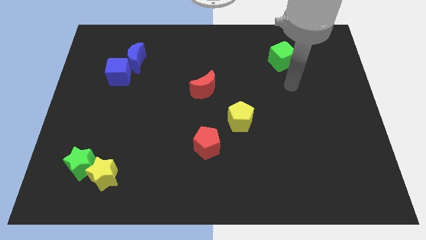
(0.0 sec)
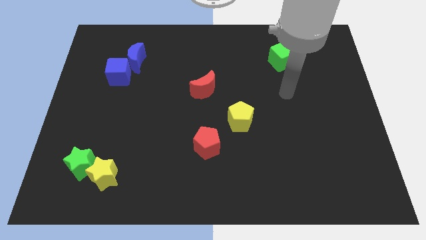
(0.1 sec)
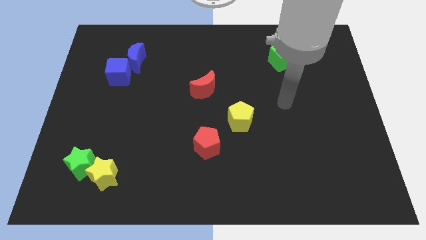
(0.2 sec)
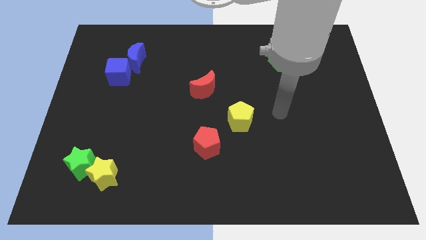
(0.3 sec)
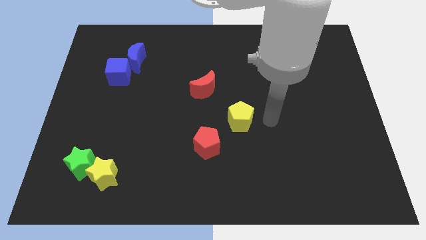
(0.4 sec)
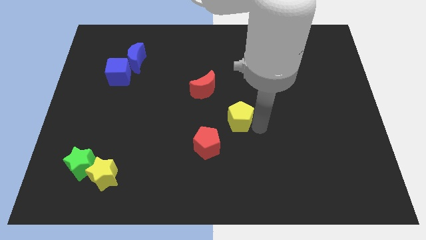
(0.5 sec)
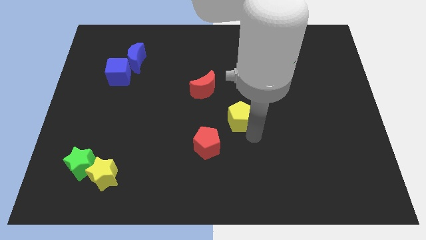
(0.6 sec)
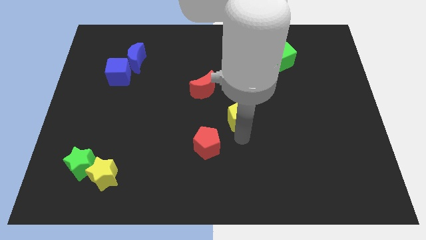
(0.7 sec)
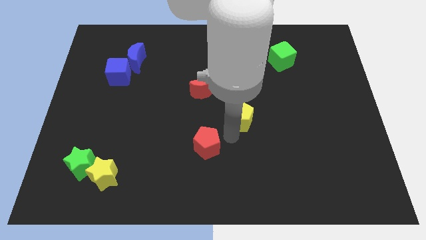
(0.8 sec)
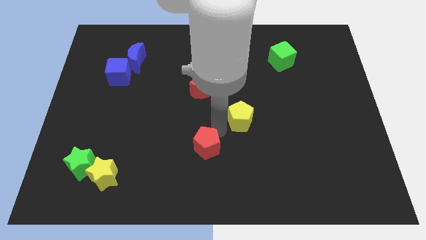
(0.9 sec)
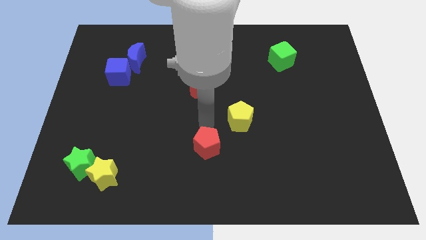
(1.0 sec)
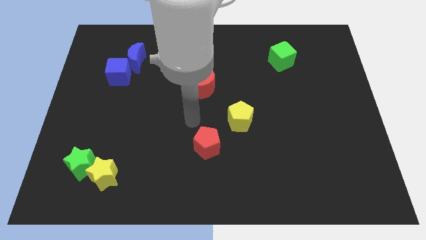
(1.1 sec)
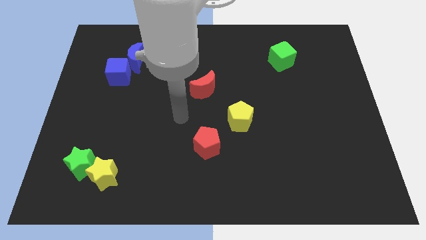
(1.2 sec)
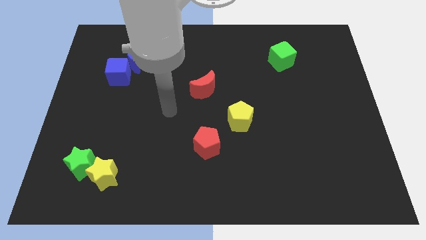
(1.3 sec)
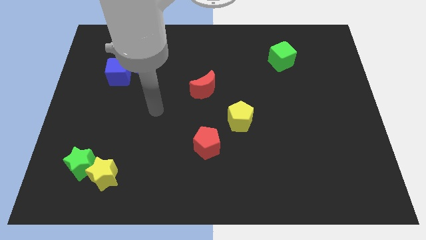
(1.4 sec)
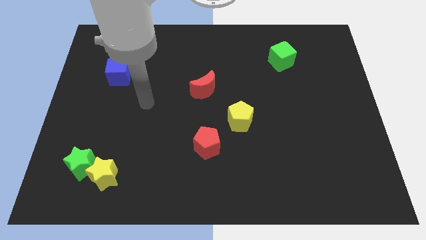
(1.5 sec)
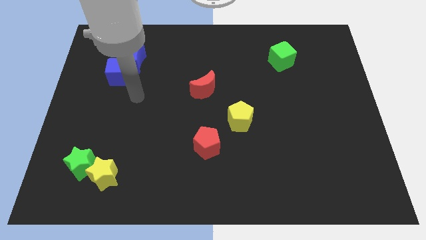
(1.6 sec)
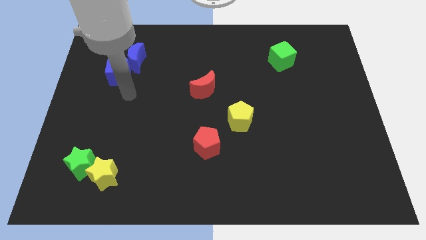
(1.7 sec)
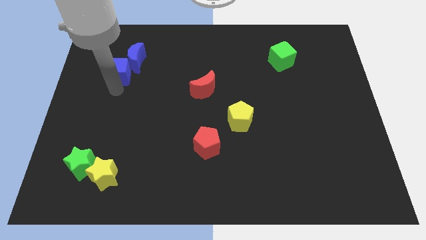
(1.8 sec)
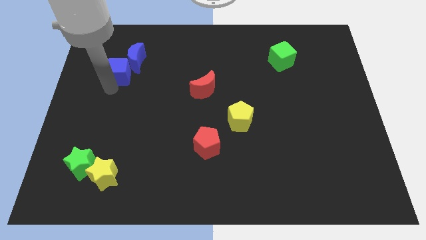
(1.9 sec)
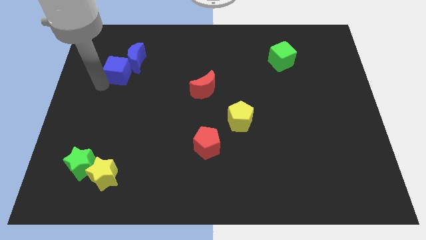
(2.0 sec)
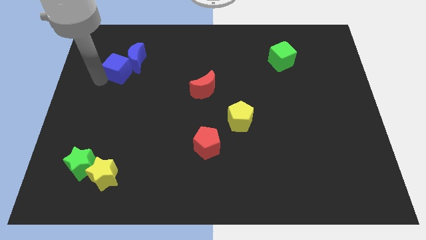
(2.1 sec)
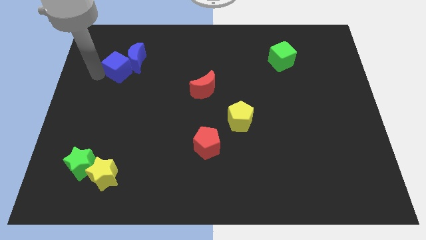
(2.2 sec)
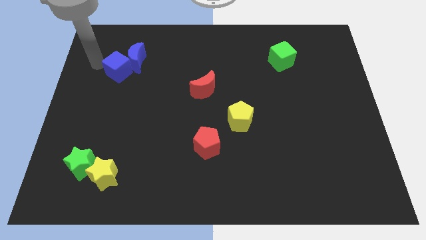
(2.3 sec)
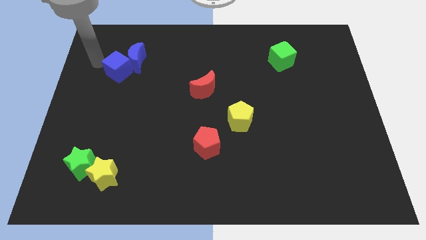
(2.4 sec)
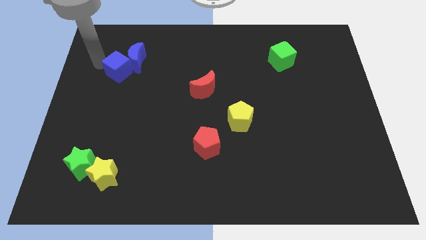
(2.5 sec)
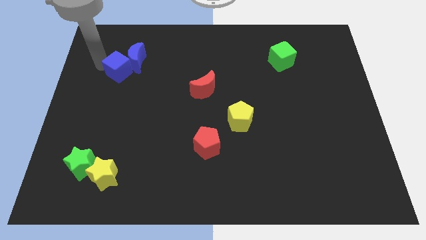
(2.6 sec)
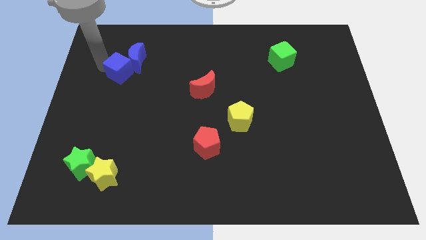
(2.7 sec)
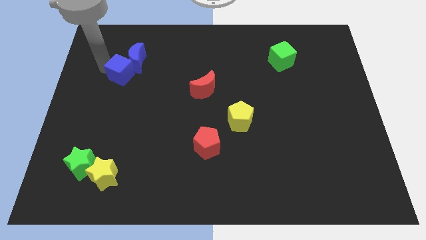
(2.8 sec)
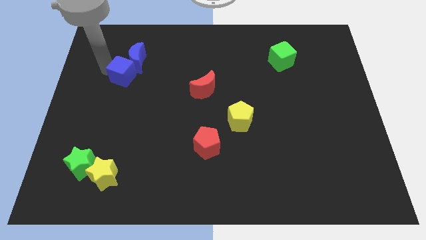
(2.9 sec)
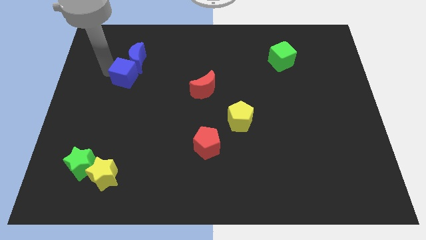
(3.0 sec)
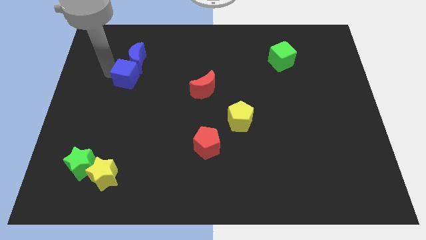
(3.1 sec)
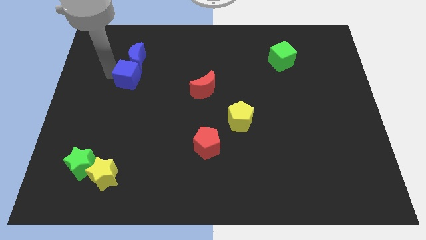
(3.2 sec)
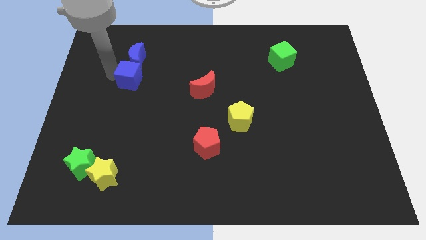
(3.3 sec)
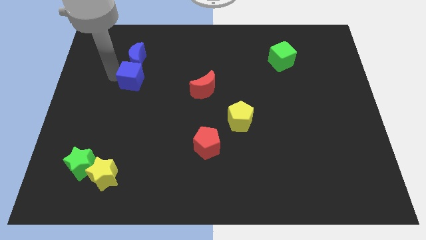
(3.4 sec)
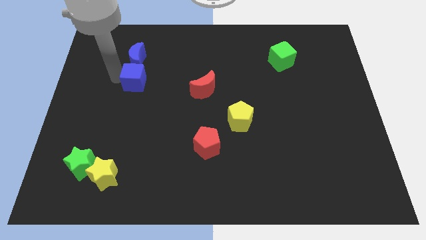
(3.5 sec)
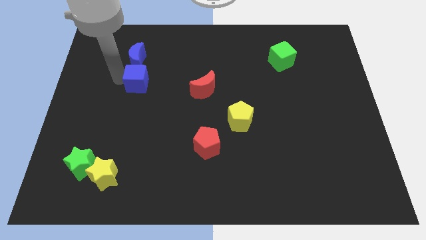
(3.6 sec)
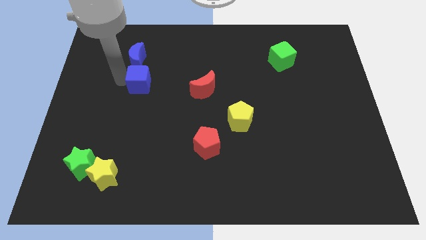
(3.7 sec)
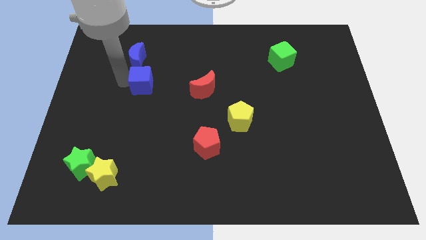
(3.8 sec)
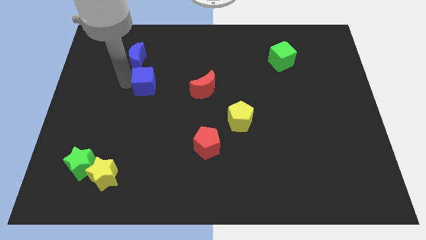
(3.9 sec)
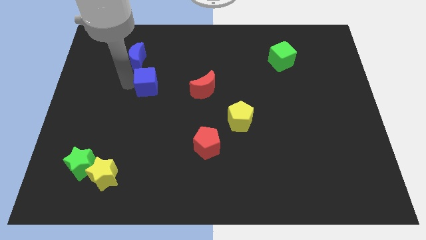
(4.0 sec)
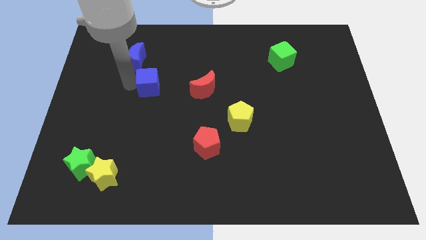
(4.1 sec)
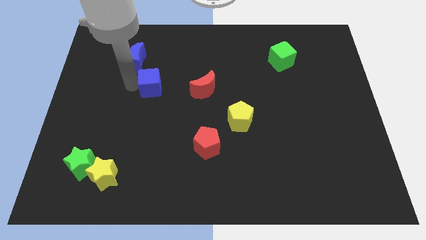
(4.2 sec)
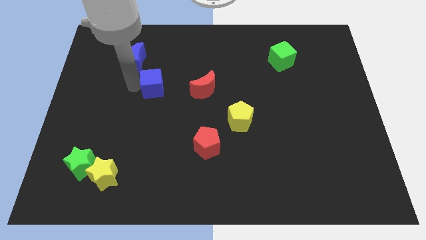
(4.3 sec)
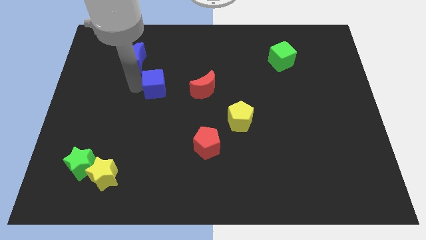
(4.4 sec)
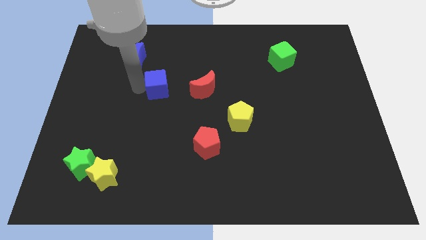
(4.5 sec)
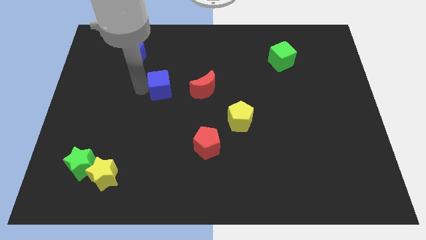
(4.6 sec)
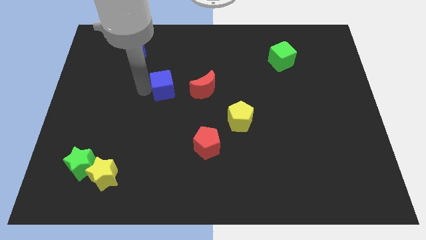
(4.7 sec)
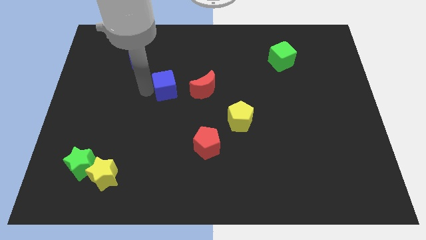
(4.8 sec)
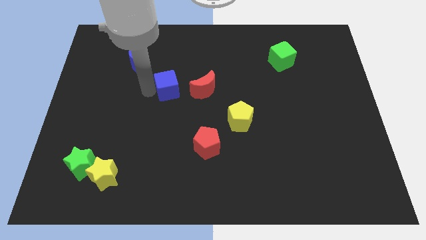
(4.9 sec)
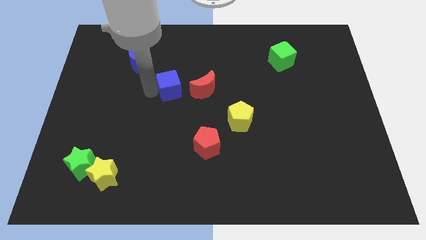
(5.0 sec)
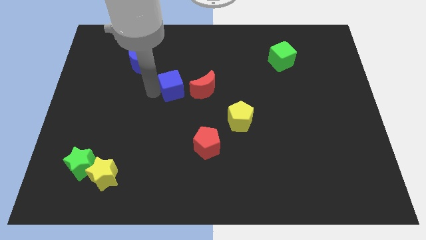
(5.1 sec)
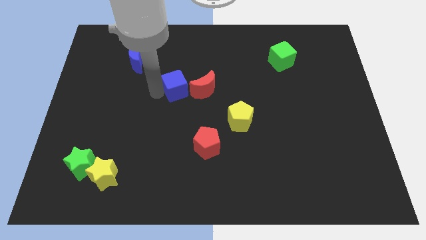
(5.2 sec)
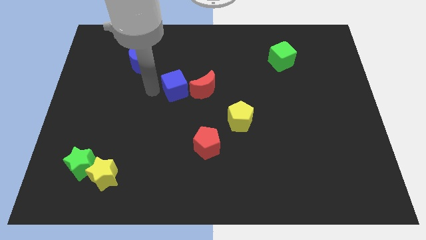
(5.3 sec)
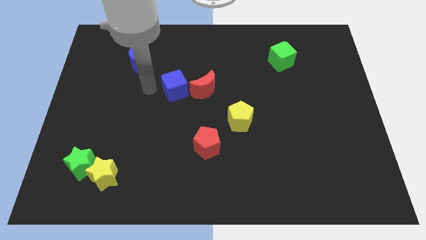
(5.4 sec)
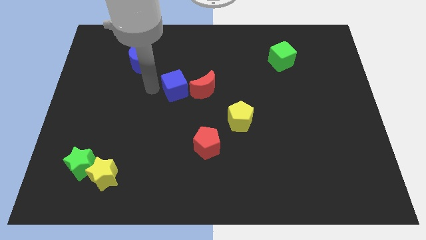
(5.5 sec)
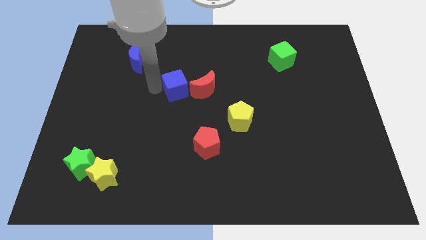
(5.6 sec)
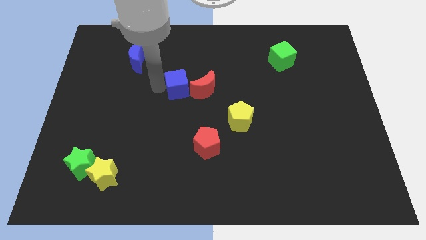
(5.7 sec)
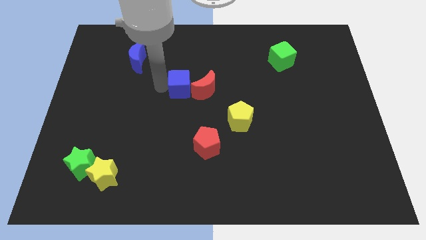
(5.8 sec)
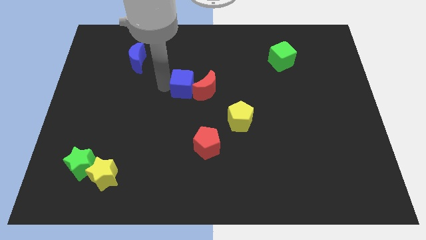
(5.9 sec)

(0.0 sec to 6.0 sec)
push the blue cube towards the red moon

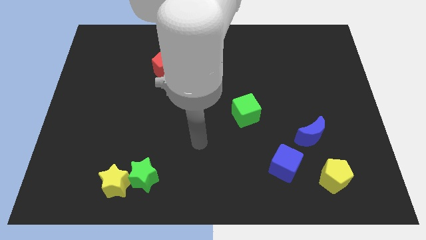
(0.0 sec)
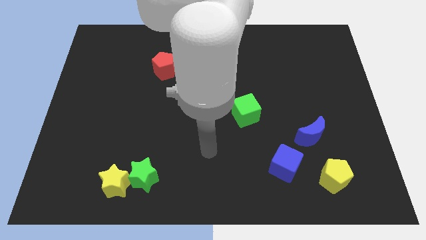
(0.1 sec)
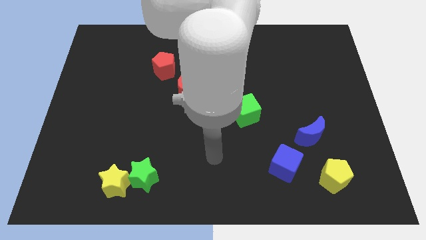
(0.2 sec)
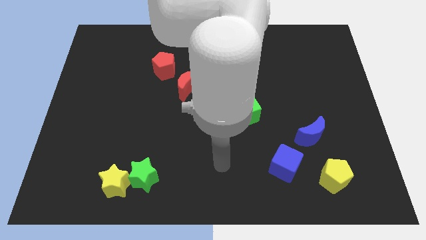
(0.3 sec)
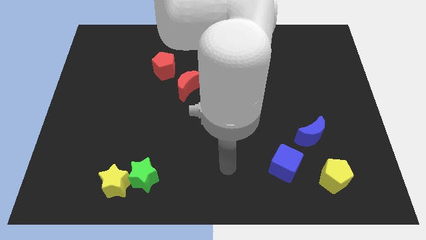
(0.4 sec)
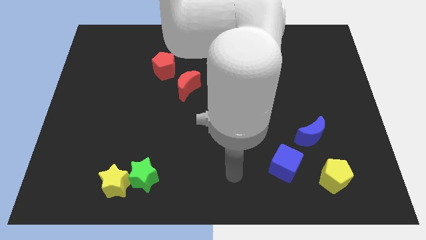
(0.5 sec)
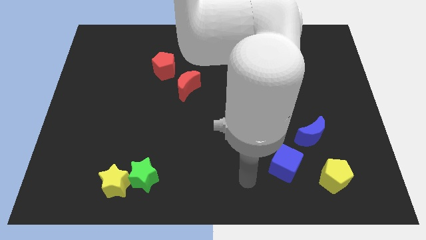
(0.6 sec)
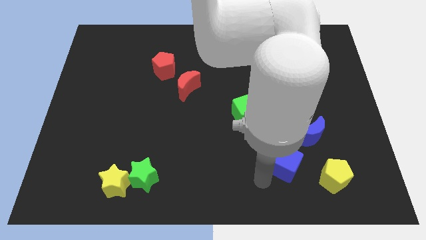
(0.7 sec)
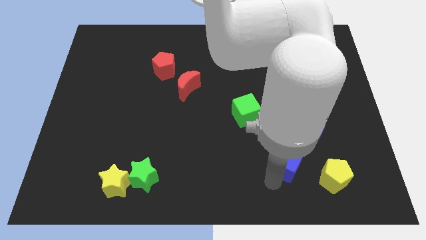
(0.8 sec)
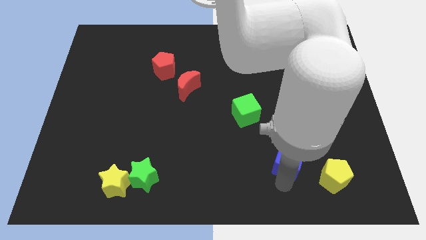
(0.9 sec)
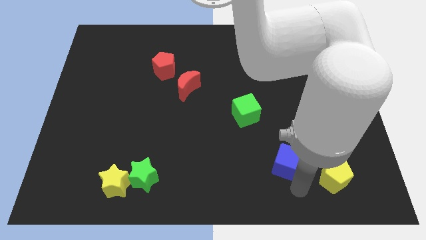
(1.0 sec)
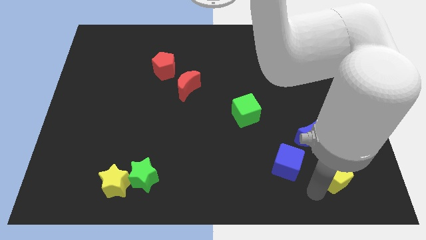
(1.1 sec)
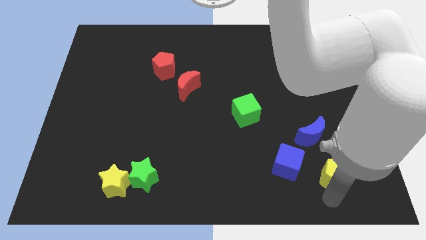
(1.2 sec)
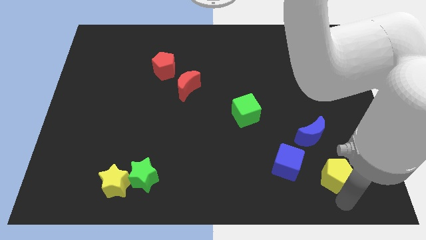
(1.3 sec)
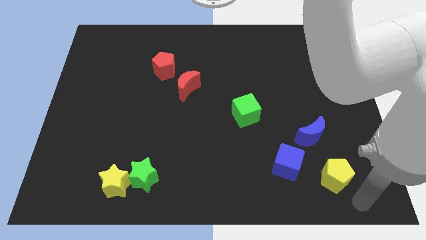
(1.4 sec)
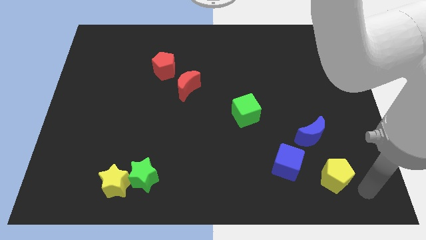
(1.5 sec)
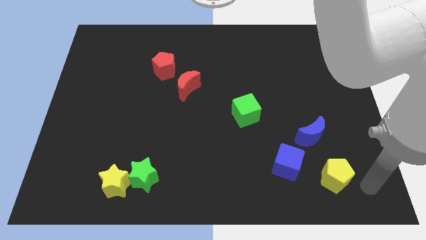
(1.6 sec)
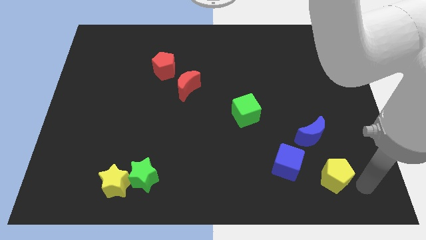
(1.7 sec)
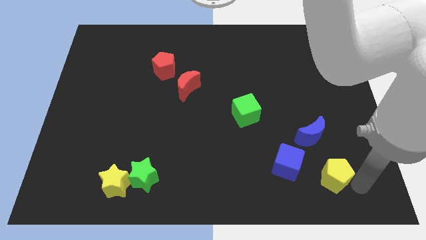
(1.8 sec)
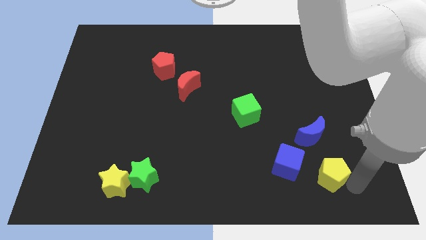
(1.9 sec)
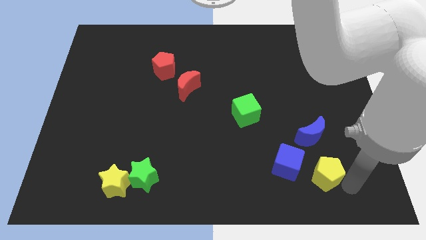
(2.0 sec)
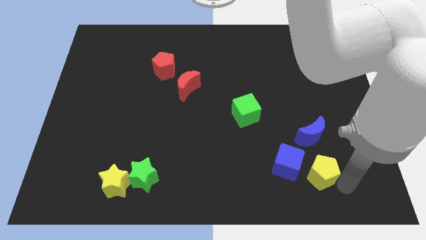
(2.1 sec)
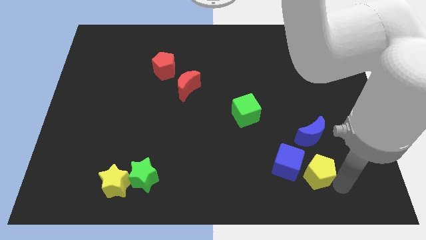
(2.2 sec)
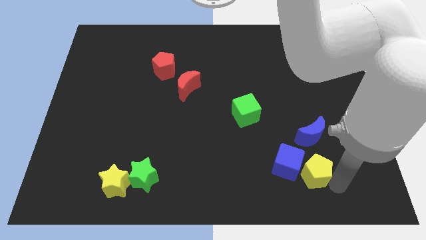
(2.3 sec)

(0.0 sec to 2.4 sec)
move the yellow pentagon towards the blue cube
